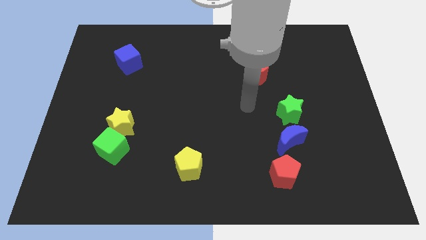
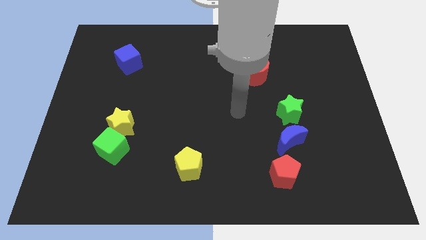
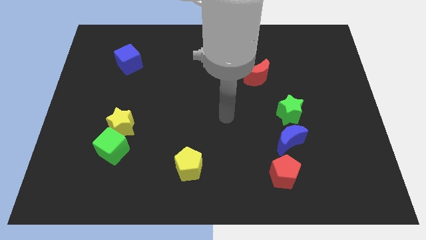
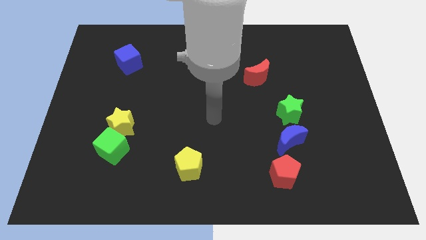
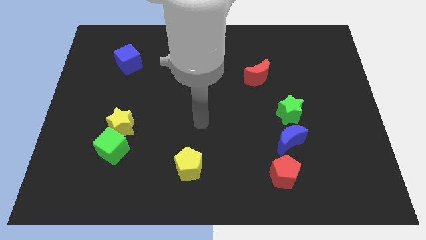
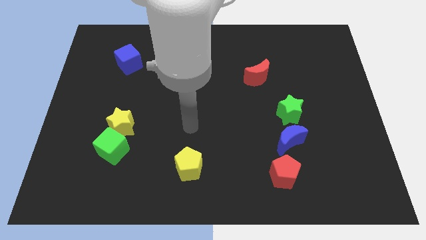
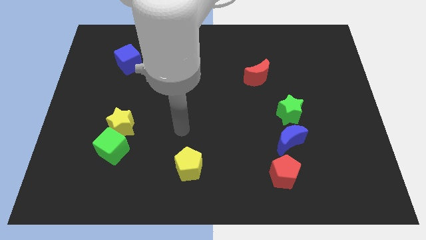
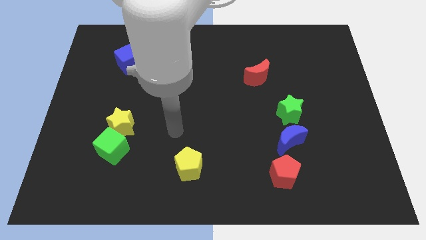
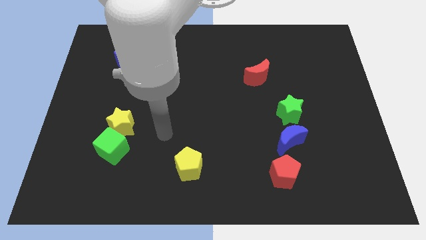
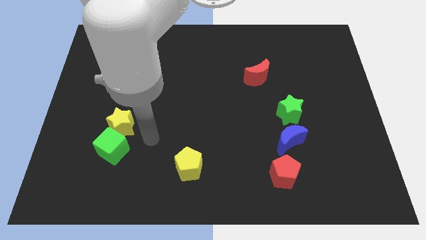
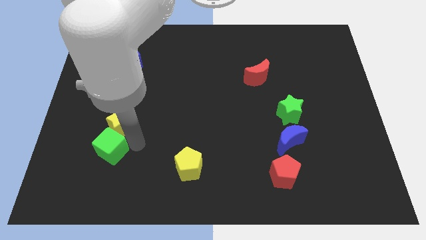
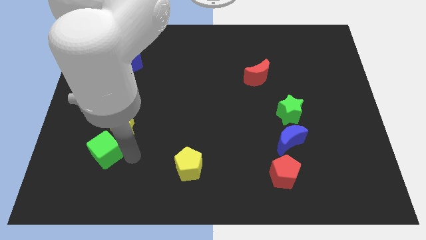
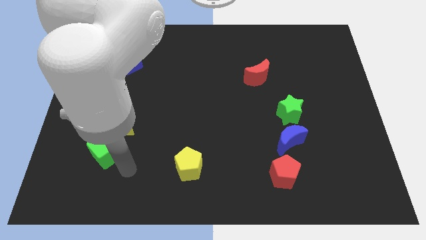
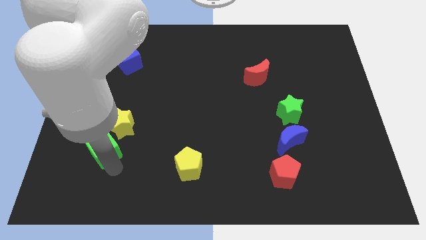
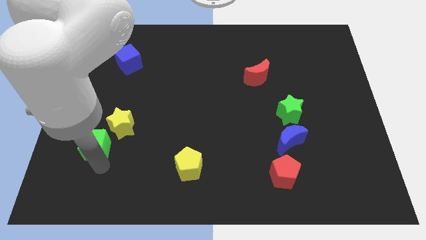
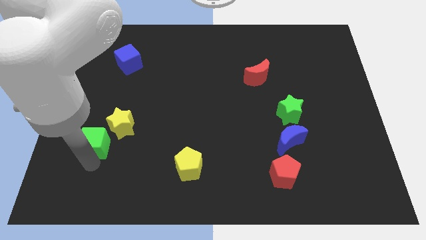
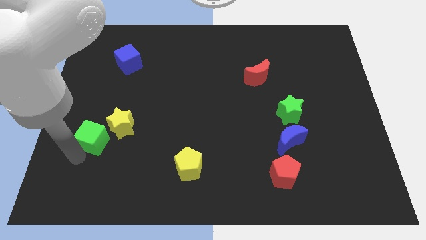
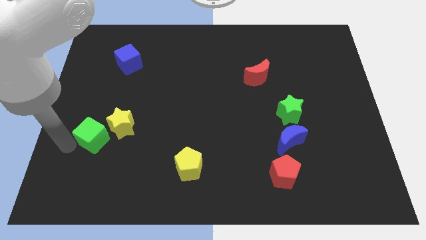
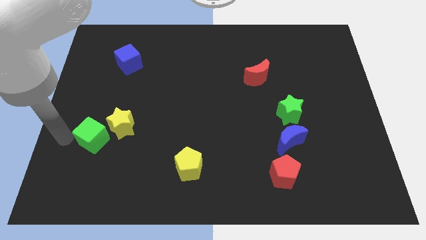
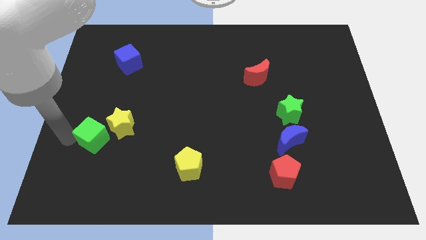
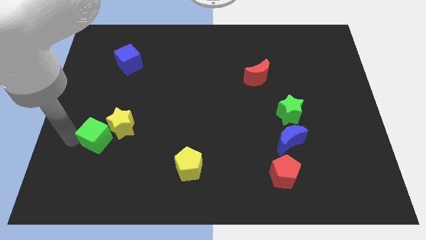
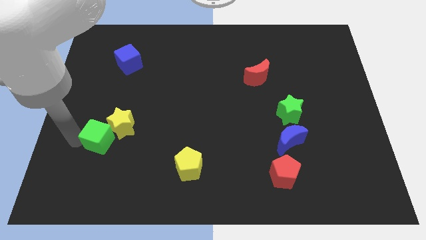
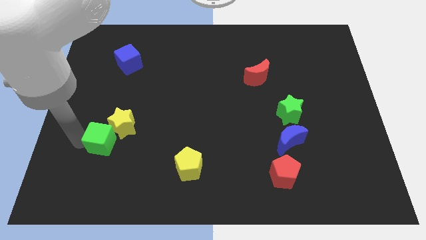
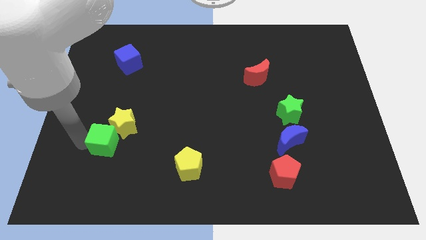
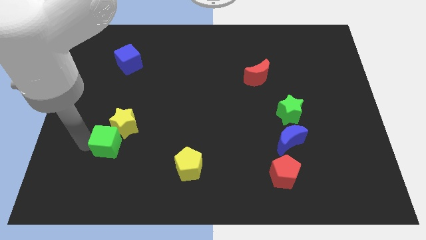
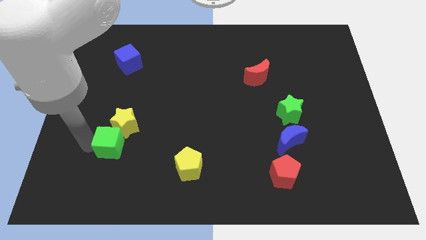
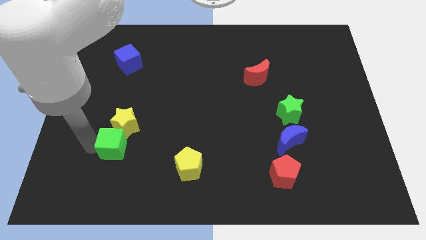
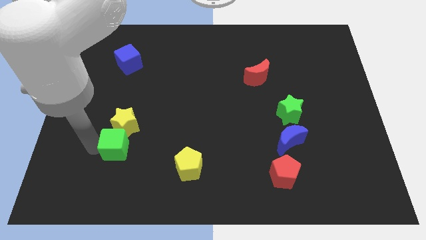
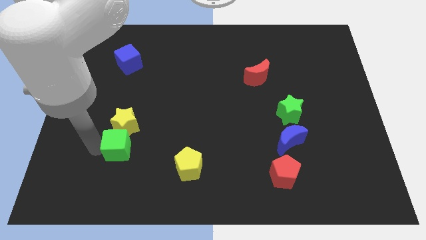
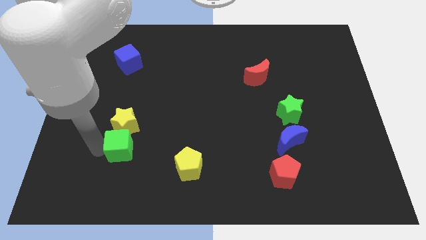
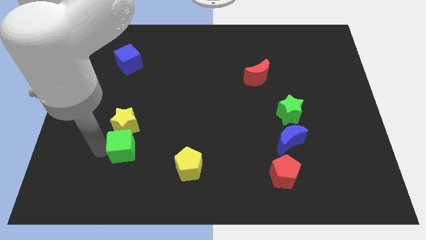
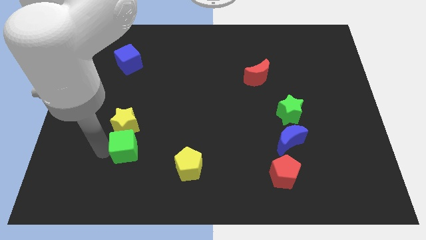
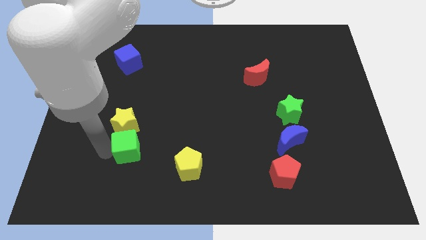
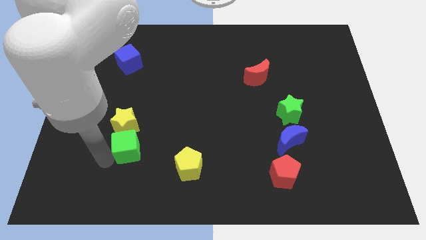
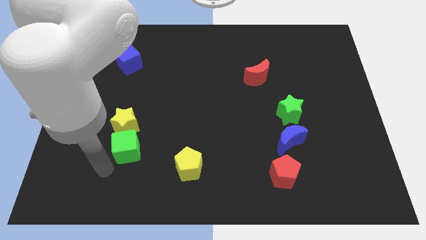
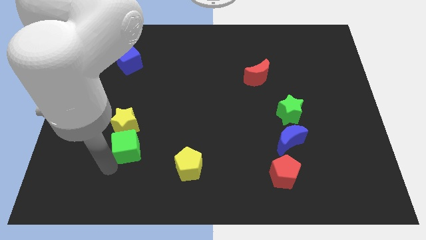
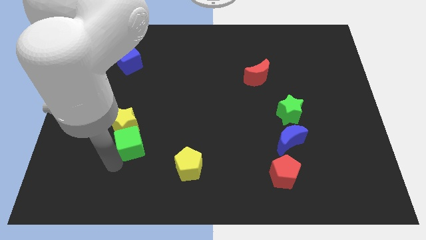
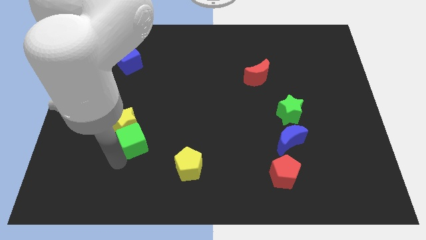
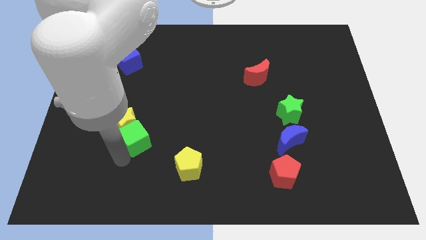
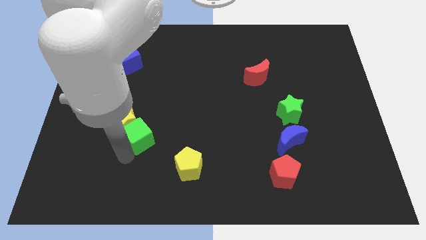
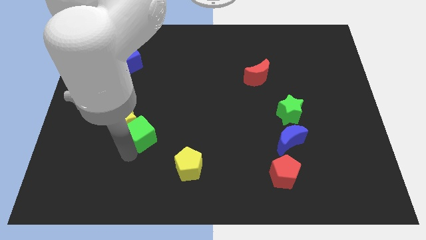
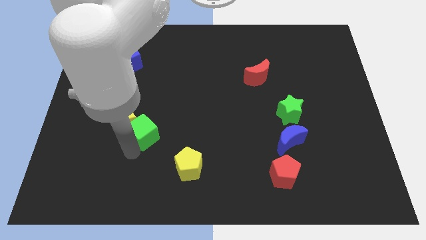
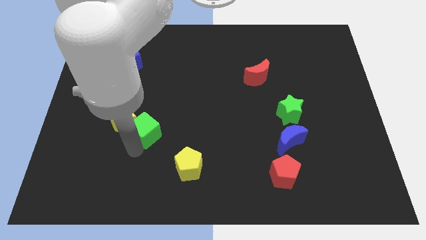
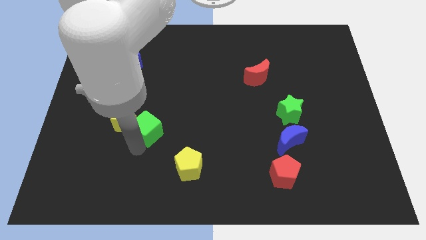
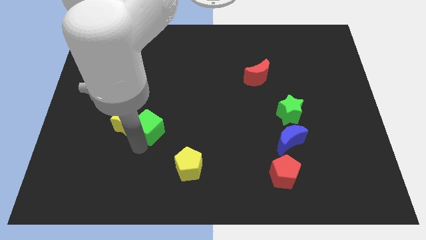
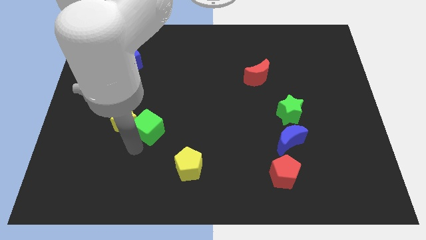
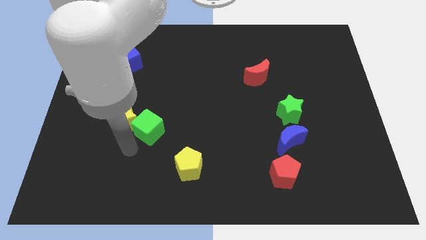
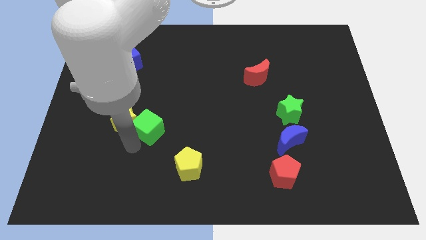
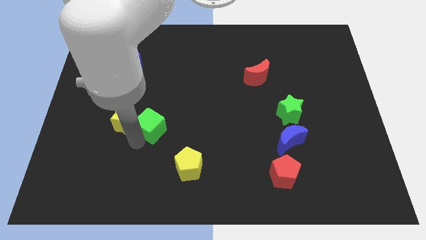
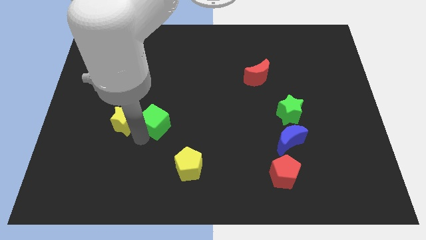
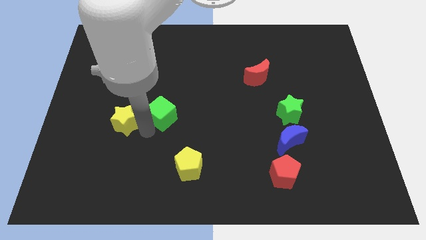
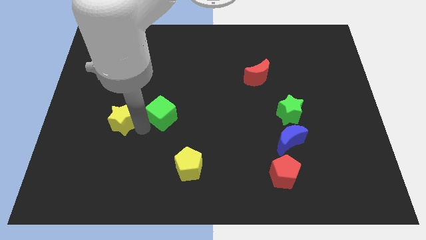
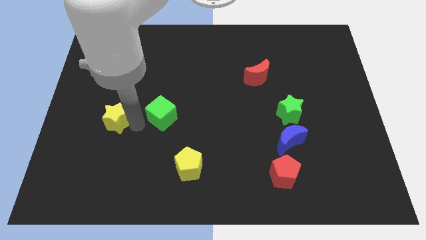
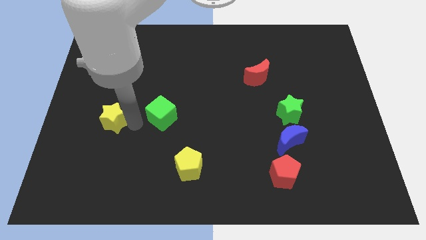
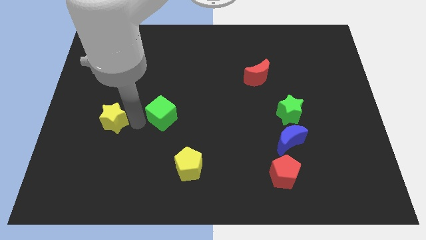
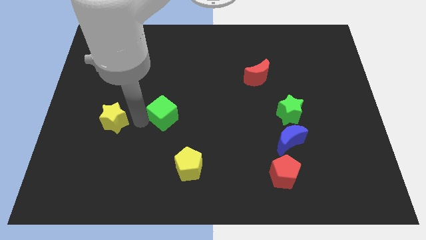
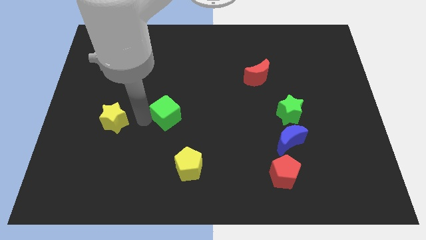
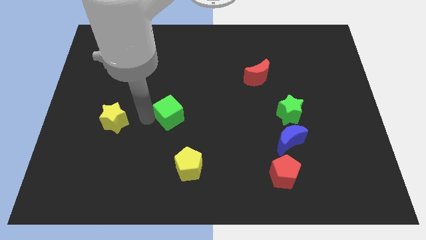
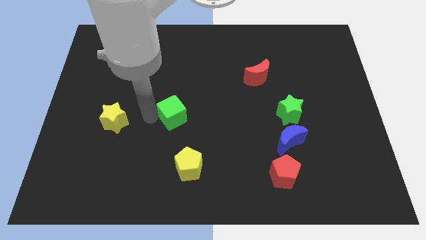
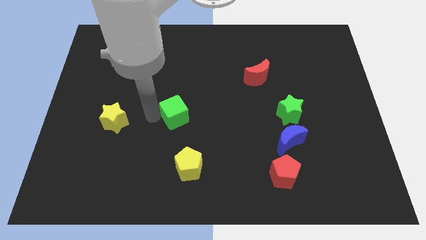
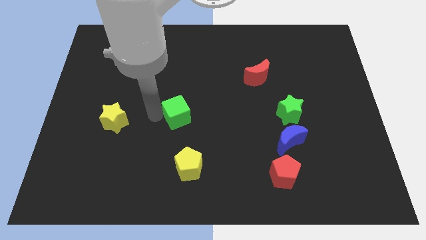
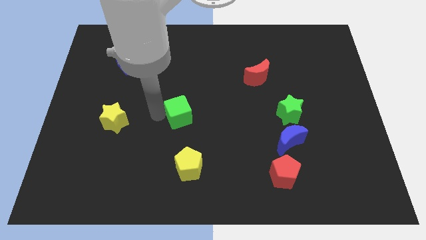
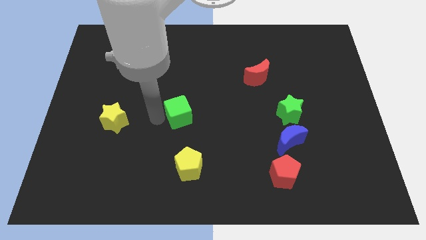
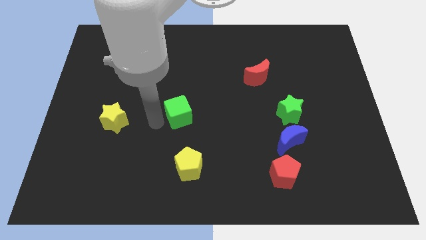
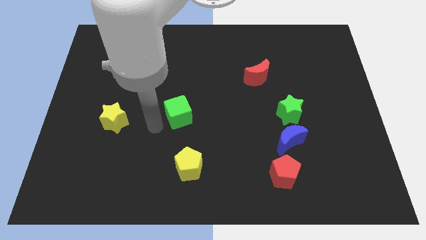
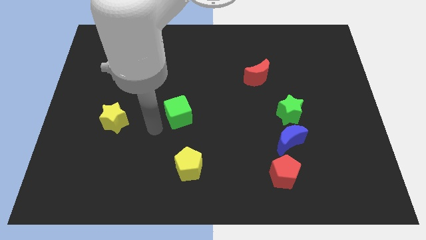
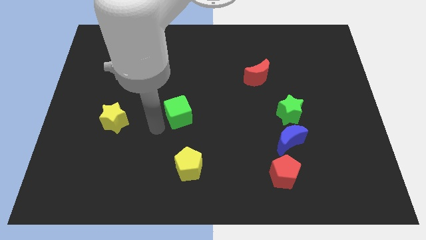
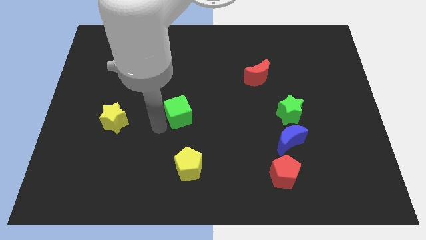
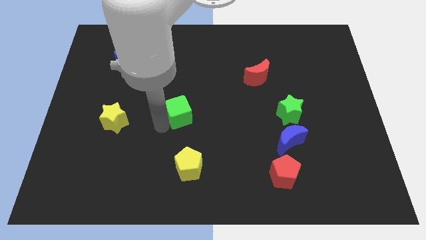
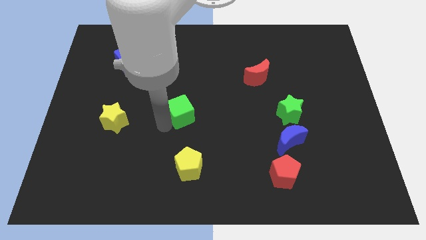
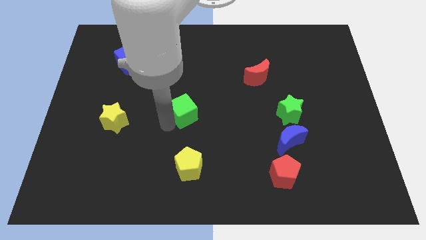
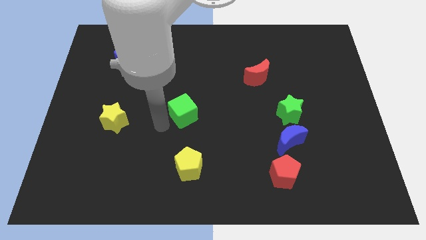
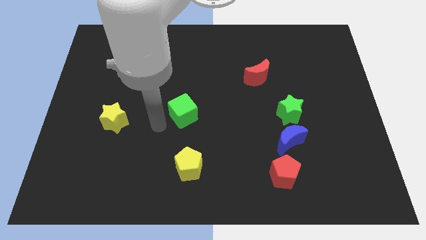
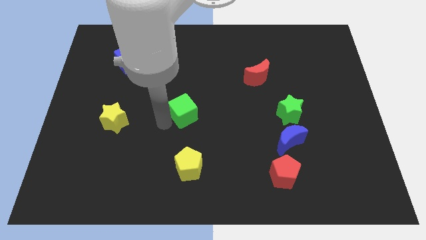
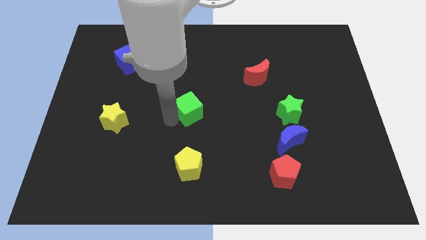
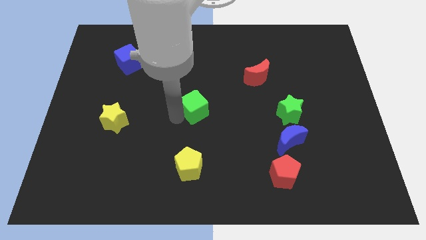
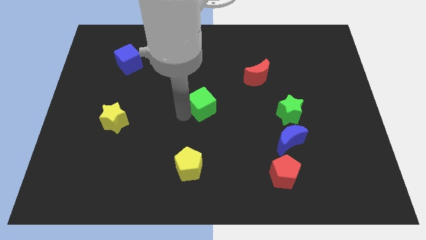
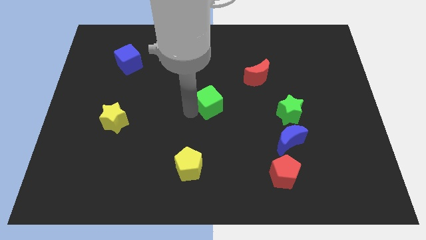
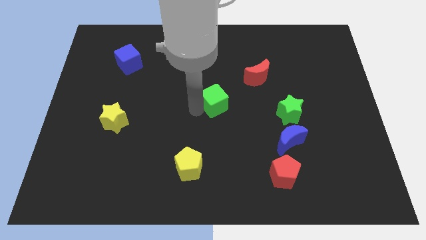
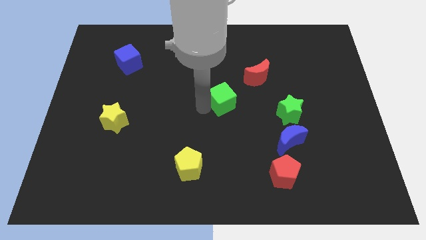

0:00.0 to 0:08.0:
put the green cube to the bottom left of the red moon
